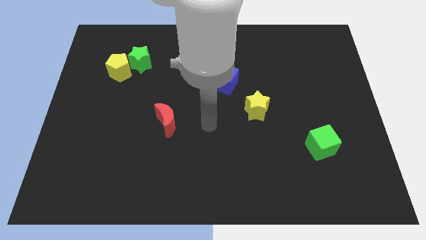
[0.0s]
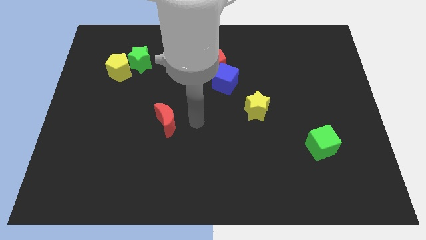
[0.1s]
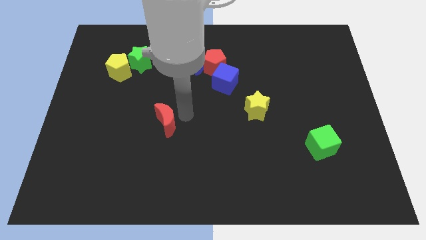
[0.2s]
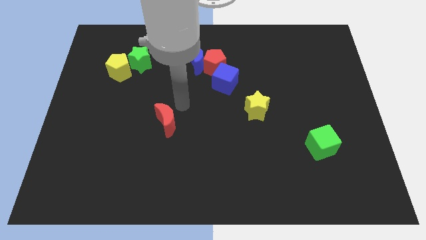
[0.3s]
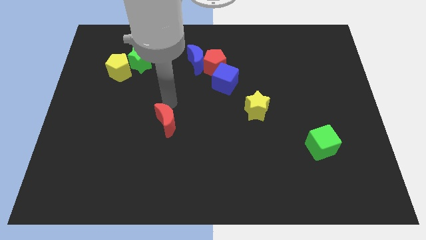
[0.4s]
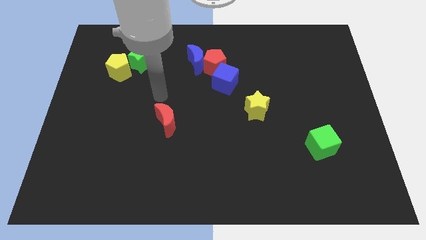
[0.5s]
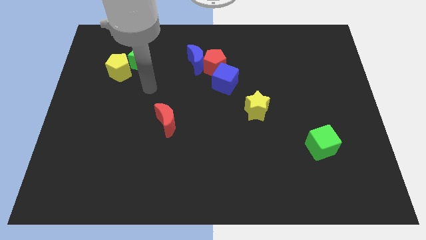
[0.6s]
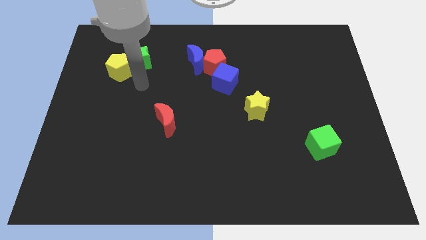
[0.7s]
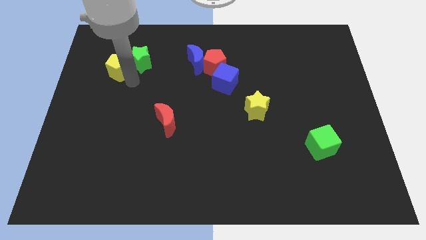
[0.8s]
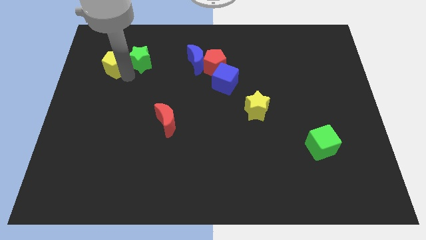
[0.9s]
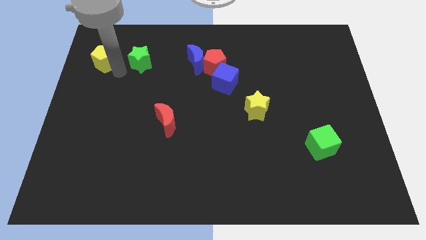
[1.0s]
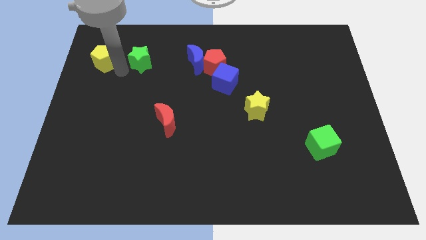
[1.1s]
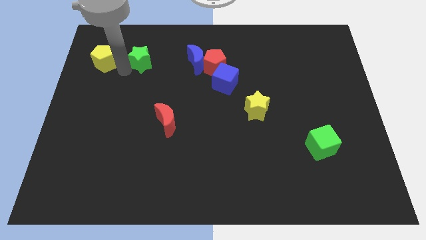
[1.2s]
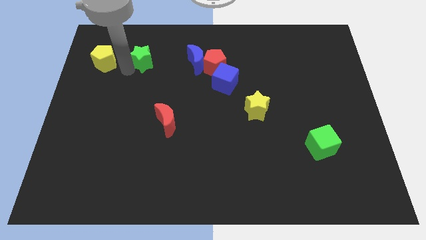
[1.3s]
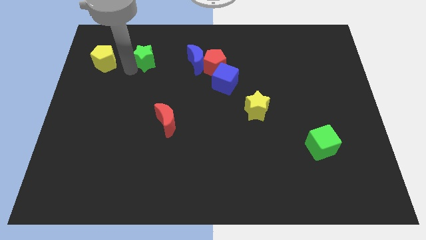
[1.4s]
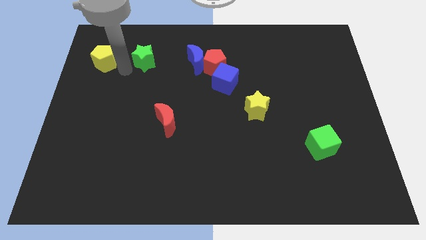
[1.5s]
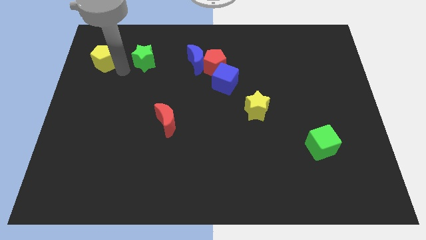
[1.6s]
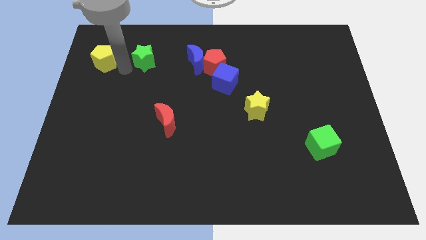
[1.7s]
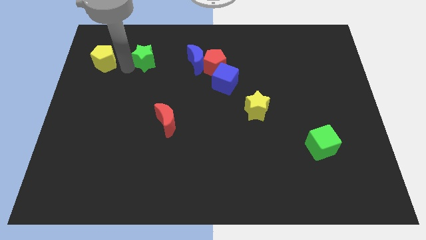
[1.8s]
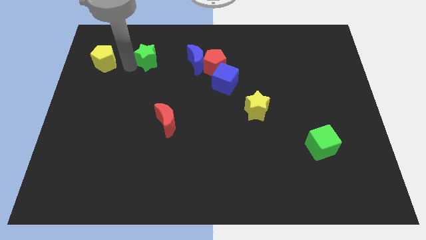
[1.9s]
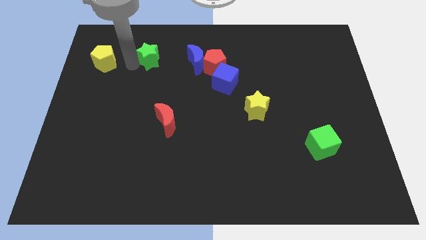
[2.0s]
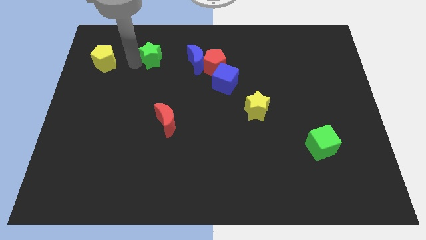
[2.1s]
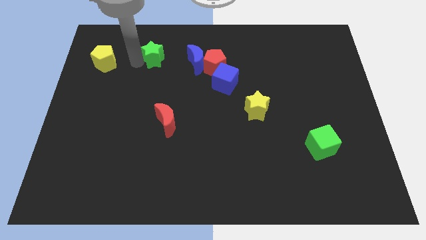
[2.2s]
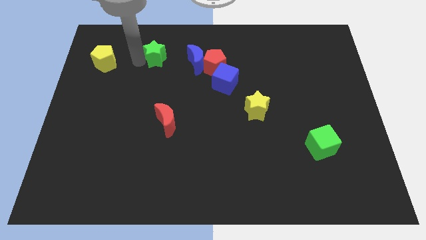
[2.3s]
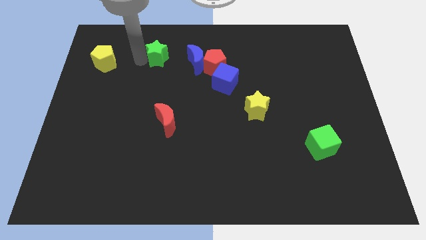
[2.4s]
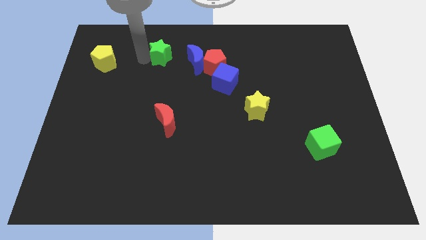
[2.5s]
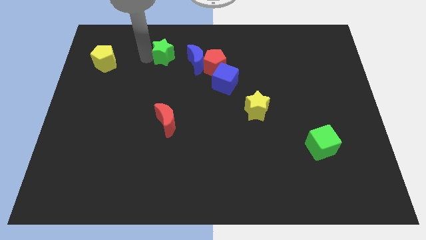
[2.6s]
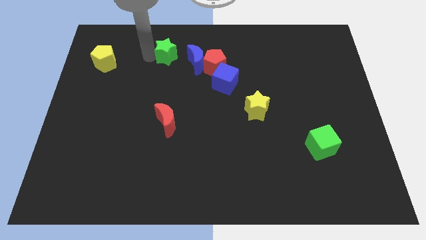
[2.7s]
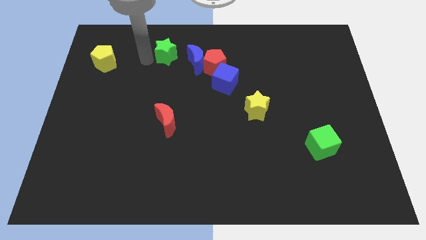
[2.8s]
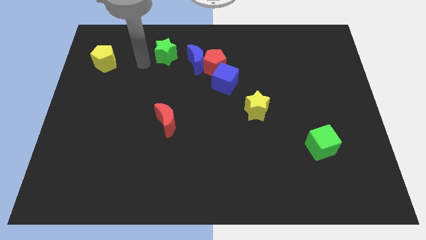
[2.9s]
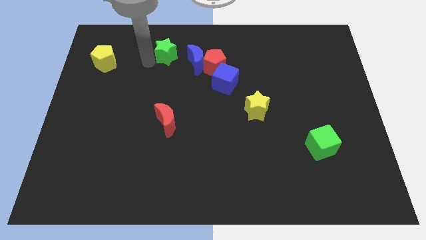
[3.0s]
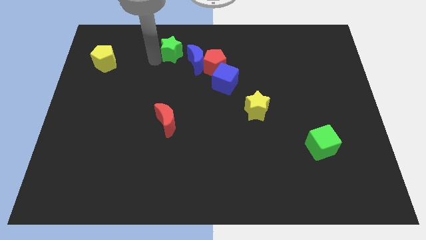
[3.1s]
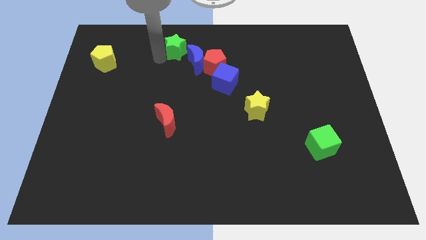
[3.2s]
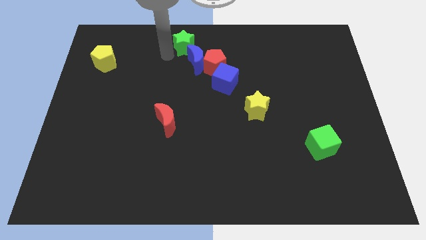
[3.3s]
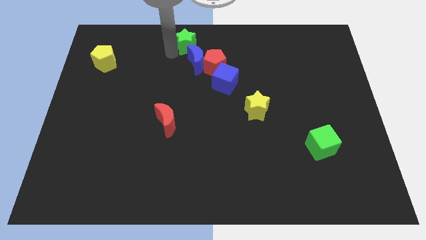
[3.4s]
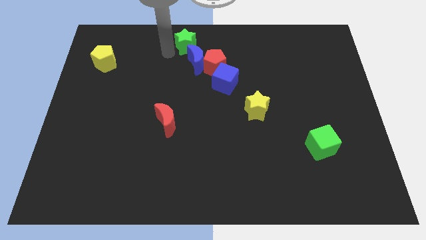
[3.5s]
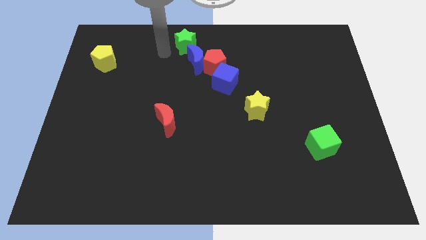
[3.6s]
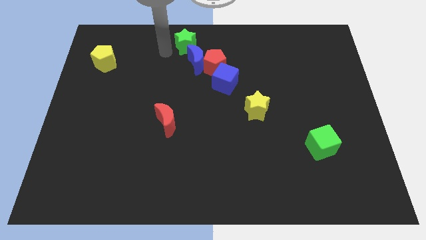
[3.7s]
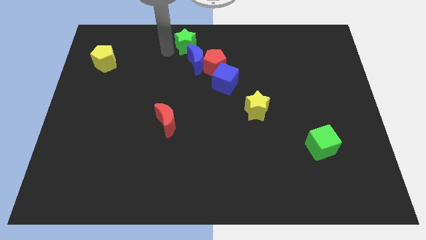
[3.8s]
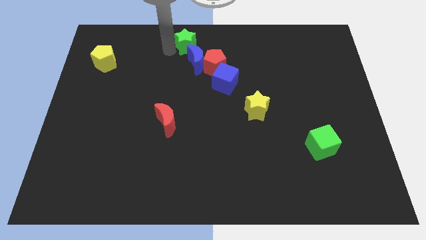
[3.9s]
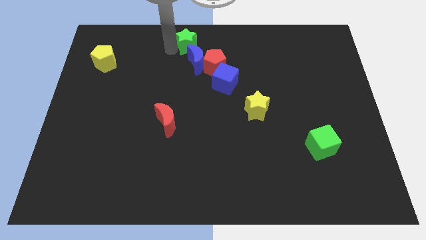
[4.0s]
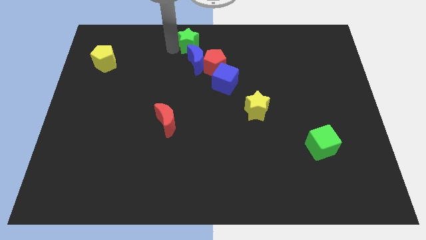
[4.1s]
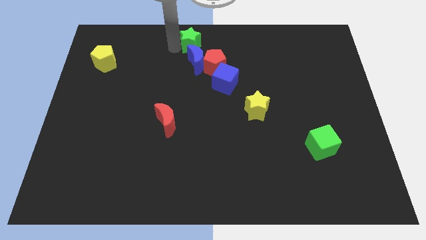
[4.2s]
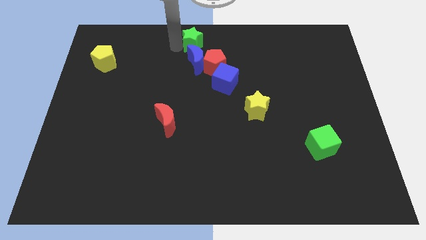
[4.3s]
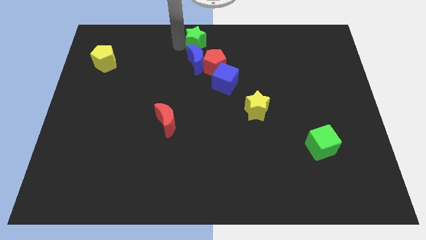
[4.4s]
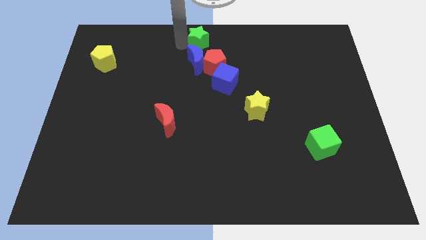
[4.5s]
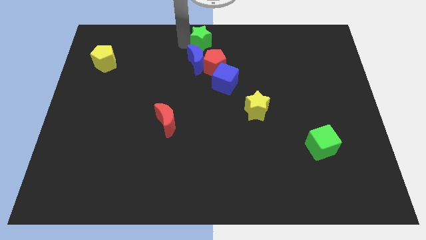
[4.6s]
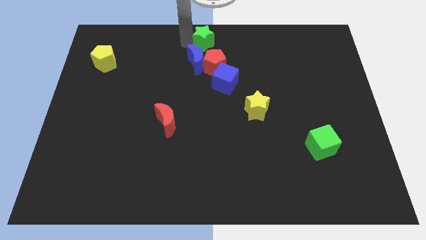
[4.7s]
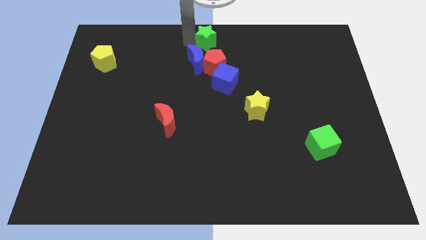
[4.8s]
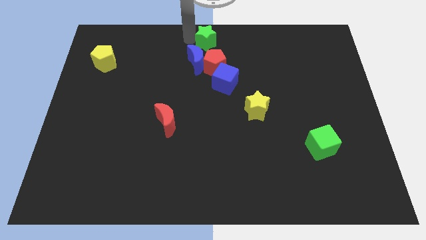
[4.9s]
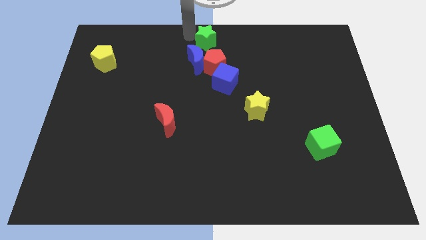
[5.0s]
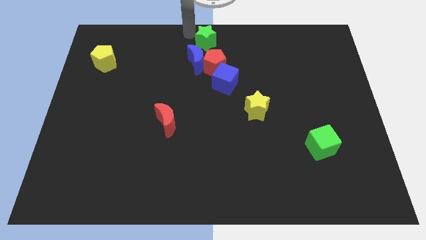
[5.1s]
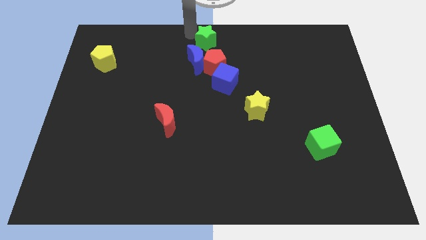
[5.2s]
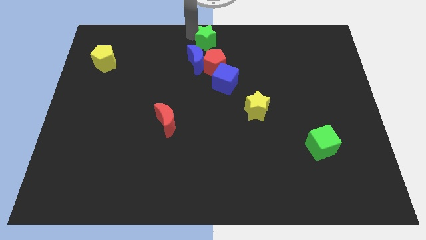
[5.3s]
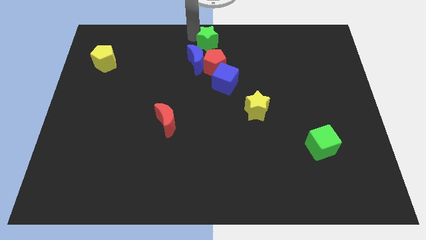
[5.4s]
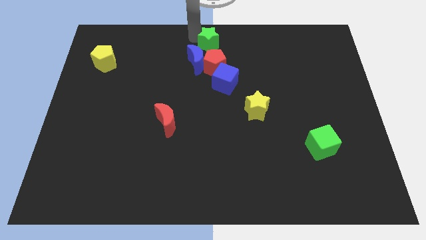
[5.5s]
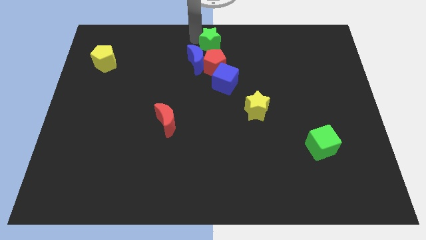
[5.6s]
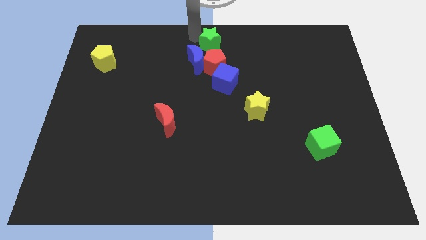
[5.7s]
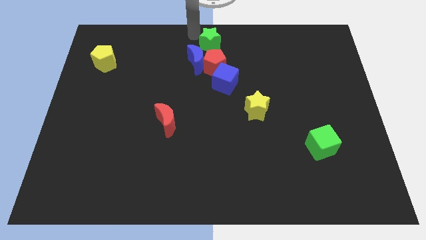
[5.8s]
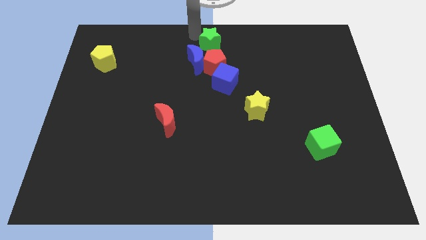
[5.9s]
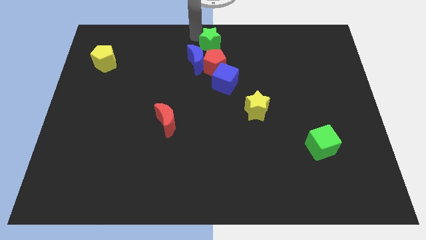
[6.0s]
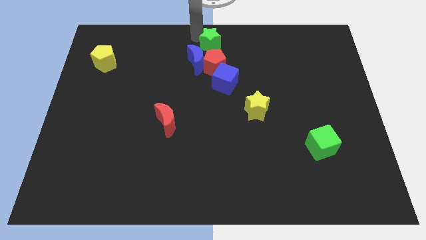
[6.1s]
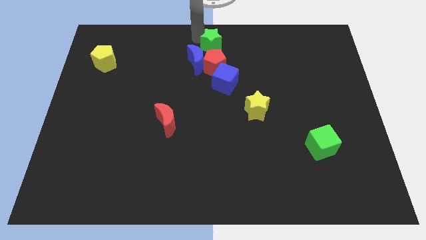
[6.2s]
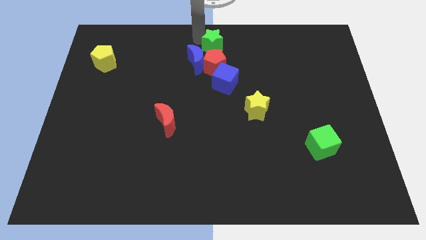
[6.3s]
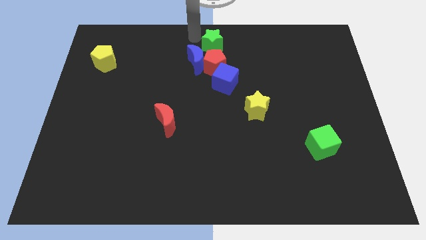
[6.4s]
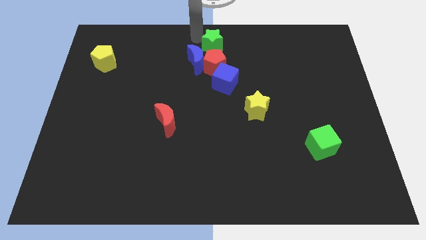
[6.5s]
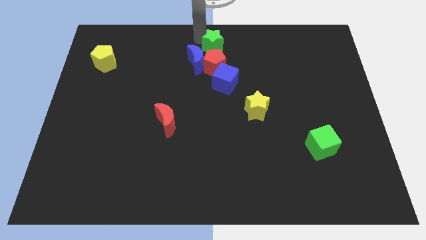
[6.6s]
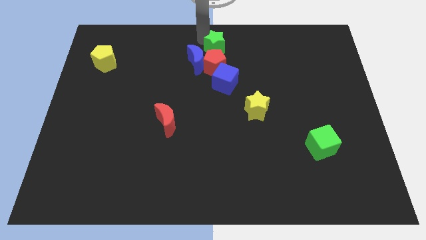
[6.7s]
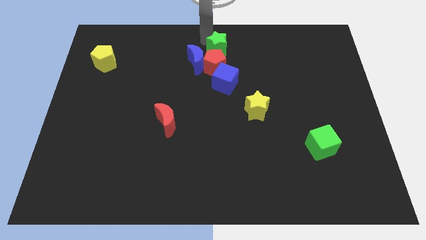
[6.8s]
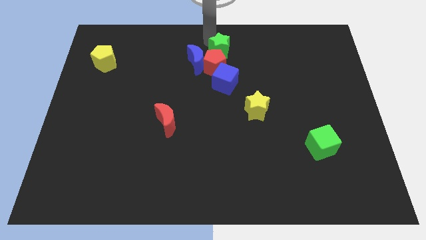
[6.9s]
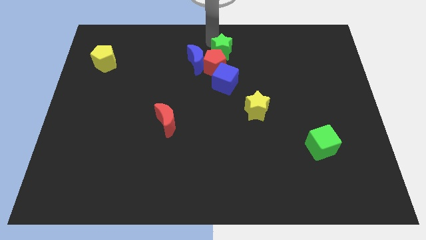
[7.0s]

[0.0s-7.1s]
move the green star to the right

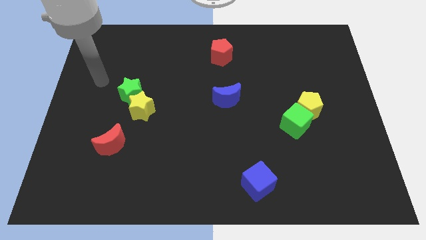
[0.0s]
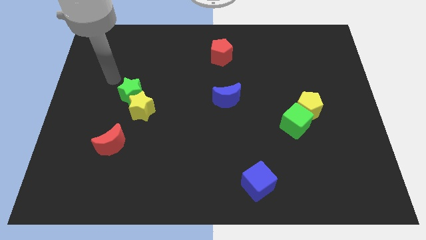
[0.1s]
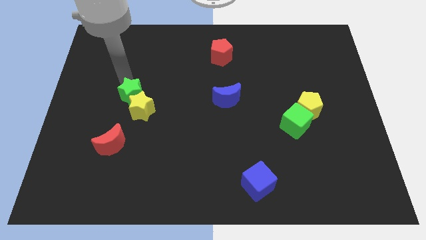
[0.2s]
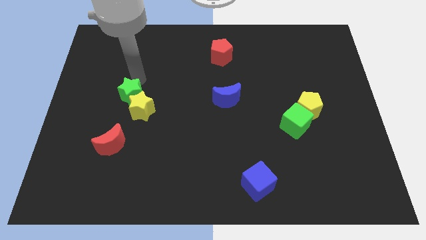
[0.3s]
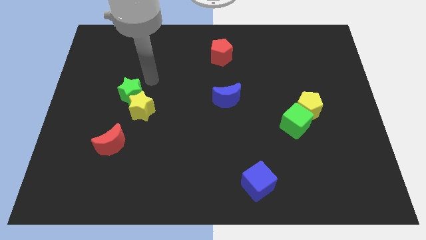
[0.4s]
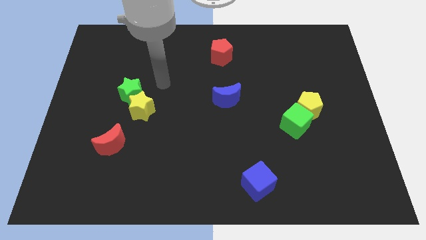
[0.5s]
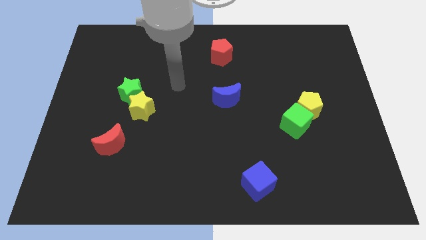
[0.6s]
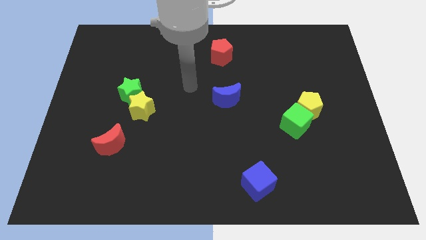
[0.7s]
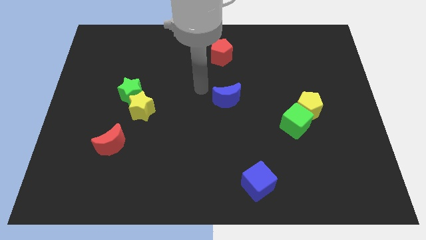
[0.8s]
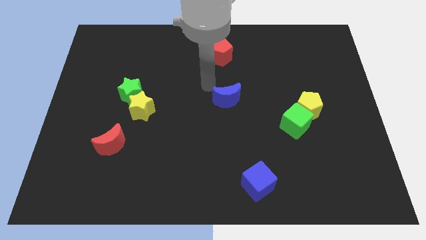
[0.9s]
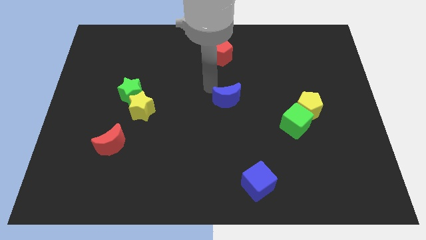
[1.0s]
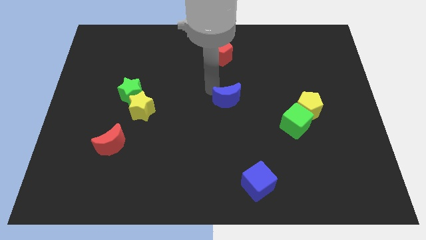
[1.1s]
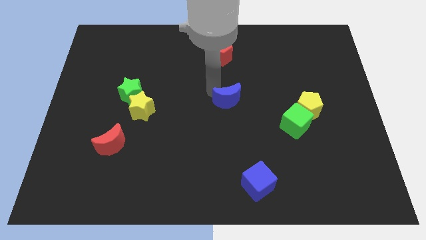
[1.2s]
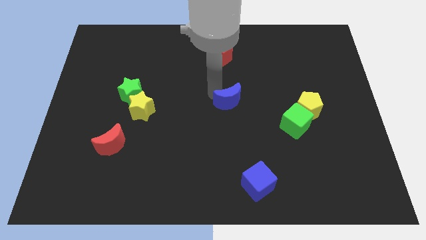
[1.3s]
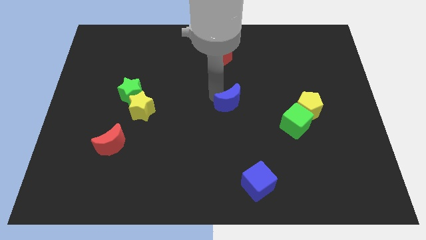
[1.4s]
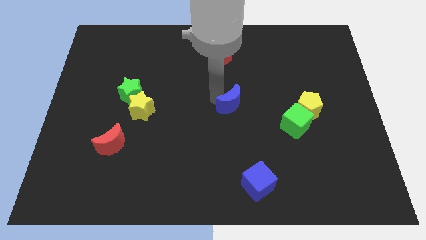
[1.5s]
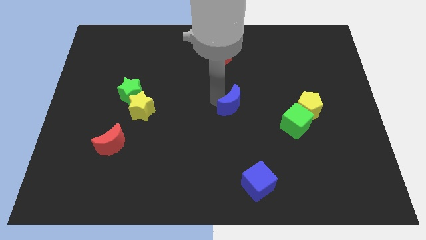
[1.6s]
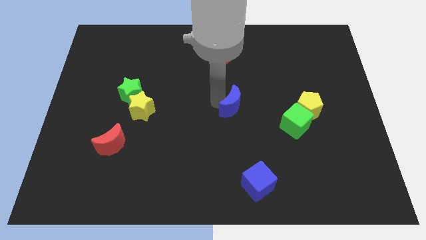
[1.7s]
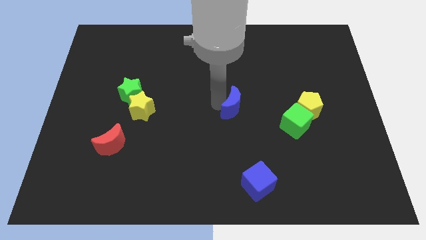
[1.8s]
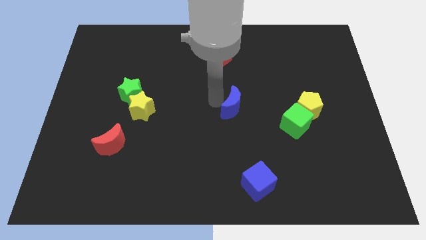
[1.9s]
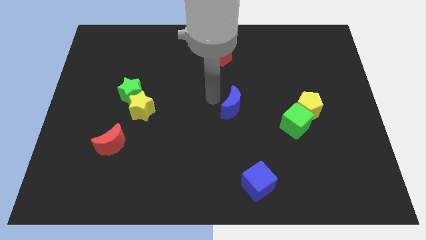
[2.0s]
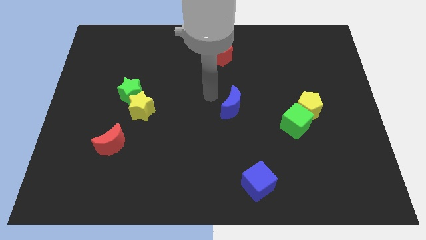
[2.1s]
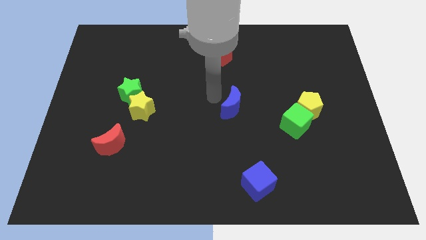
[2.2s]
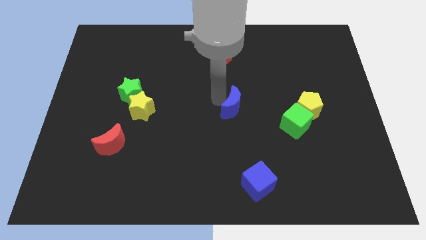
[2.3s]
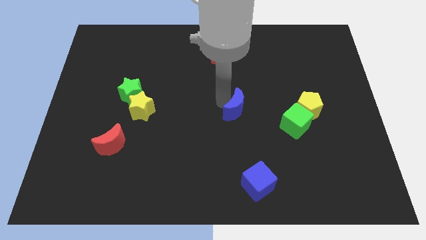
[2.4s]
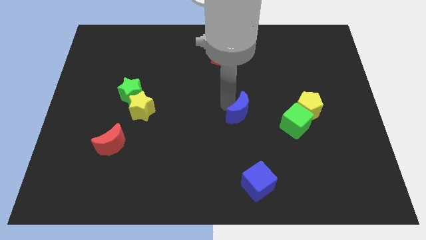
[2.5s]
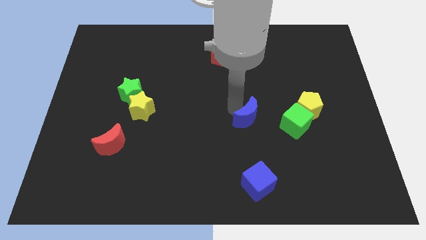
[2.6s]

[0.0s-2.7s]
push the blue moon a little down and to the right diagonally
